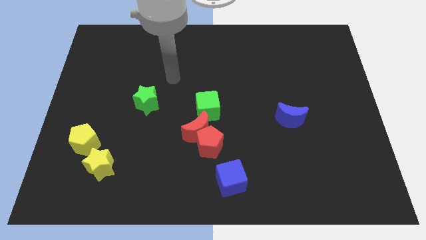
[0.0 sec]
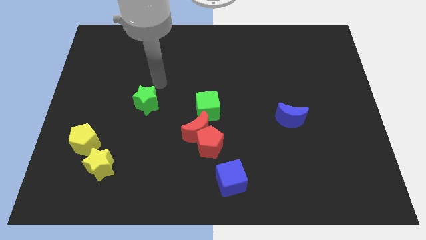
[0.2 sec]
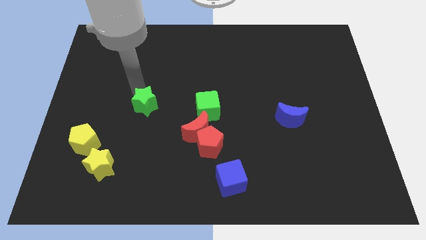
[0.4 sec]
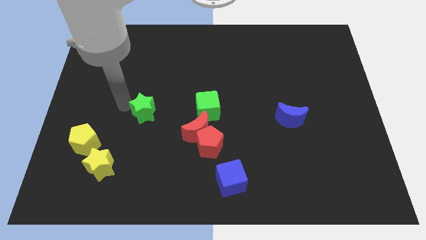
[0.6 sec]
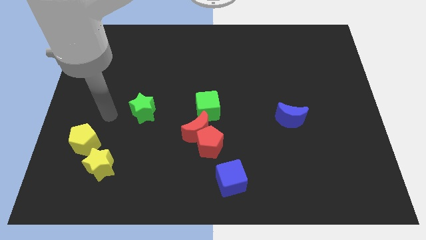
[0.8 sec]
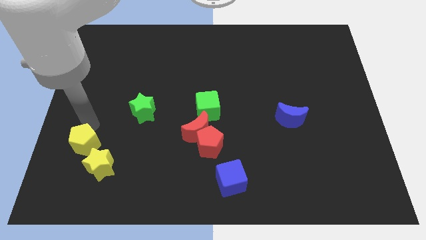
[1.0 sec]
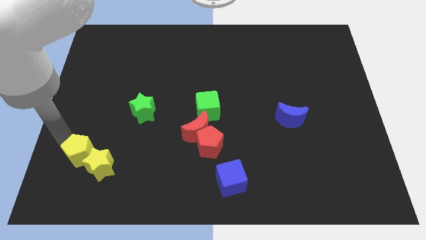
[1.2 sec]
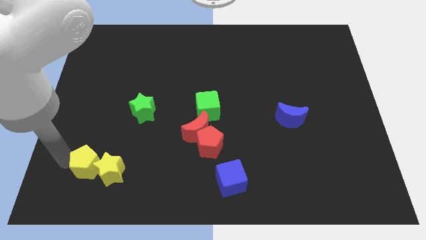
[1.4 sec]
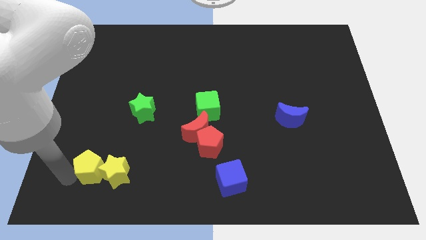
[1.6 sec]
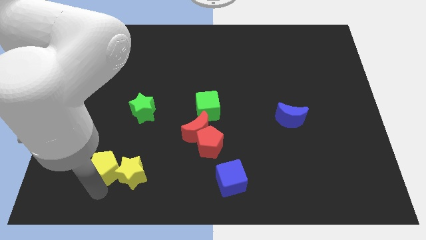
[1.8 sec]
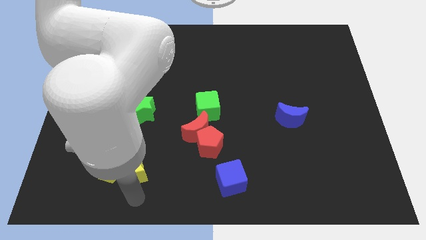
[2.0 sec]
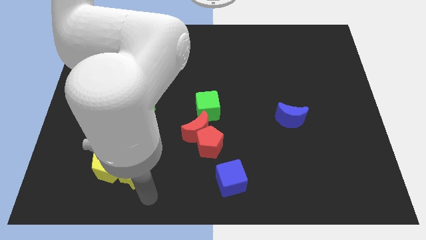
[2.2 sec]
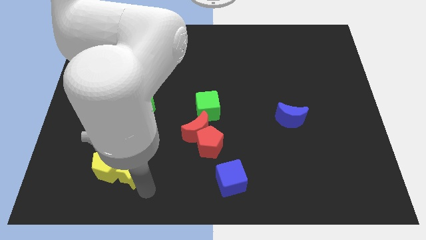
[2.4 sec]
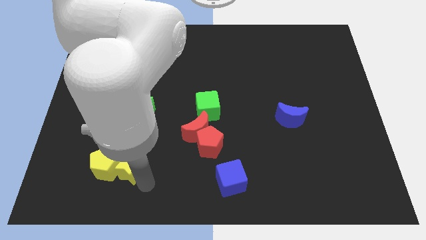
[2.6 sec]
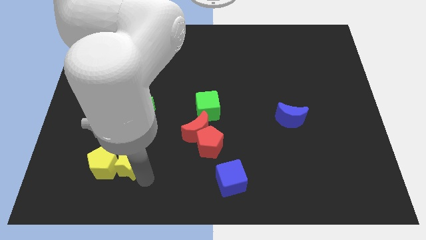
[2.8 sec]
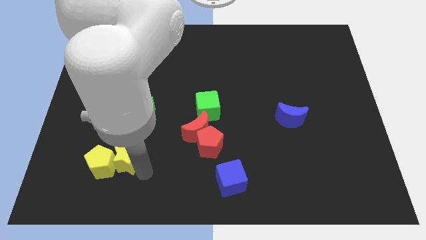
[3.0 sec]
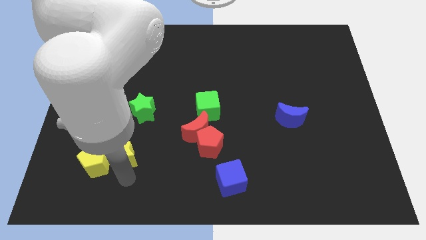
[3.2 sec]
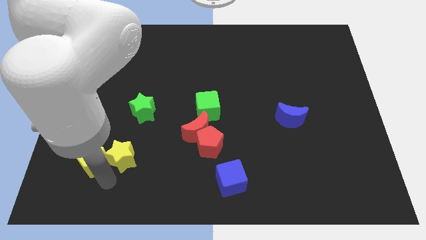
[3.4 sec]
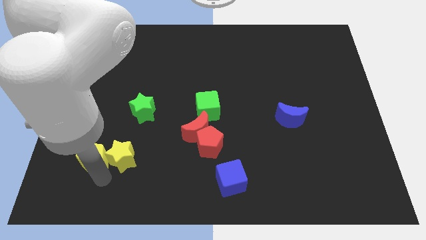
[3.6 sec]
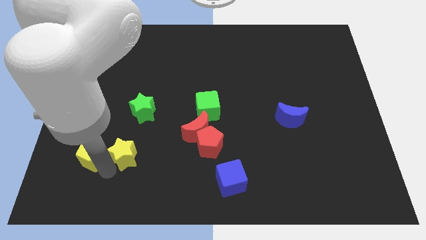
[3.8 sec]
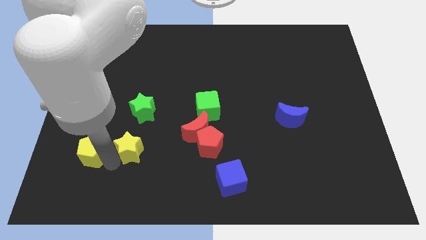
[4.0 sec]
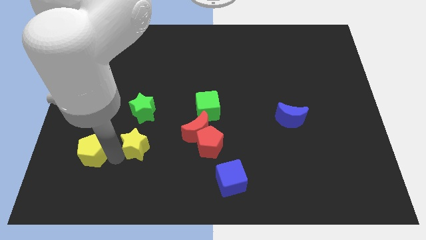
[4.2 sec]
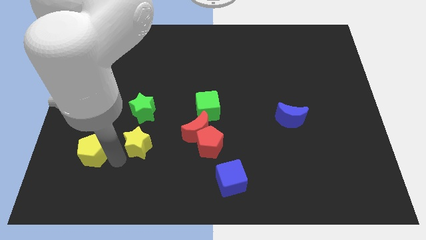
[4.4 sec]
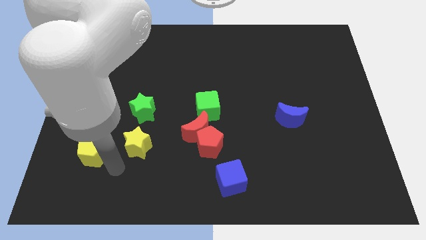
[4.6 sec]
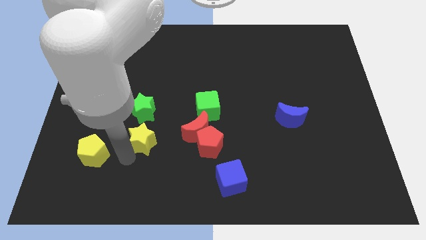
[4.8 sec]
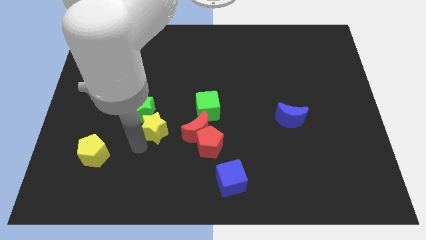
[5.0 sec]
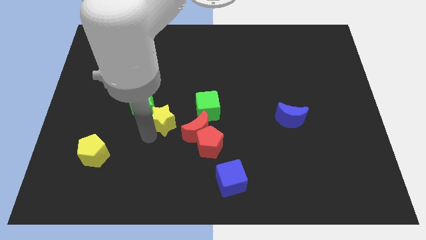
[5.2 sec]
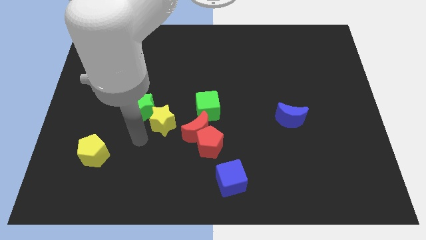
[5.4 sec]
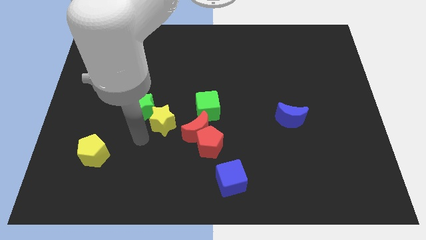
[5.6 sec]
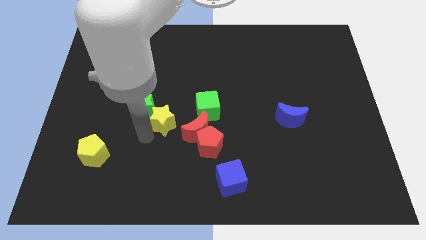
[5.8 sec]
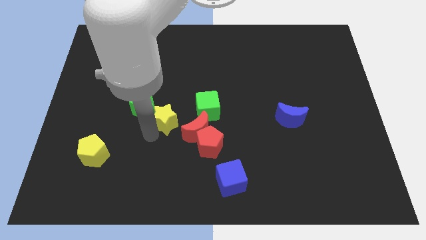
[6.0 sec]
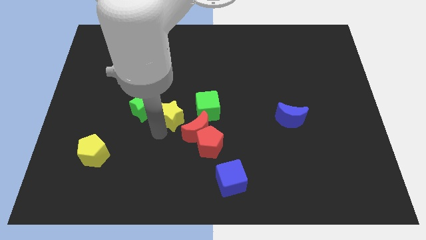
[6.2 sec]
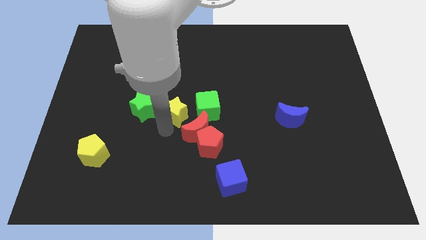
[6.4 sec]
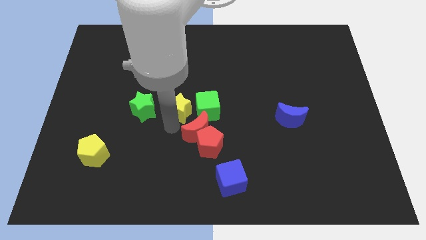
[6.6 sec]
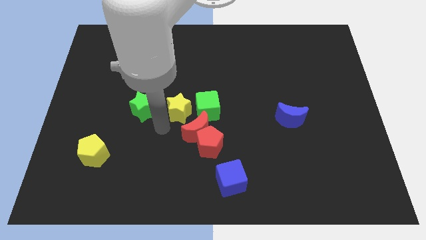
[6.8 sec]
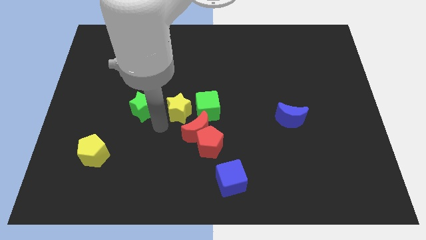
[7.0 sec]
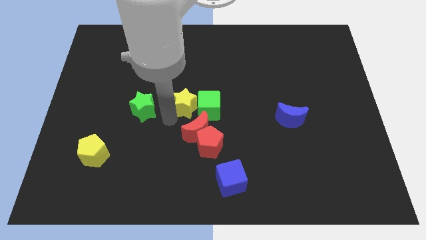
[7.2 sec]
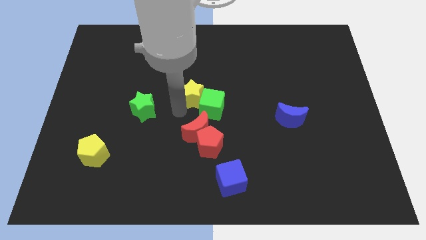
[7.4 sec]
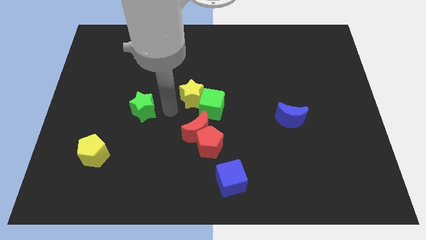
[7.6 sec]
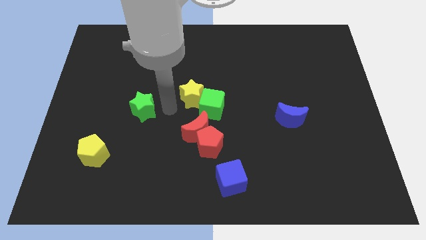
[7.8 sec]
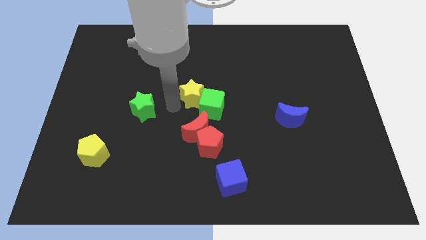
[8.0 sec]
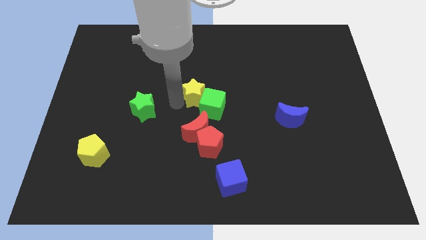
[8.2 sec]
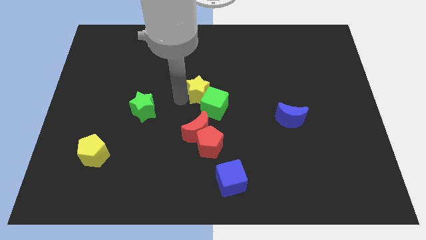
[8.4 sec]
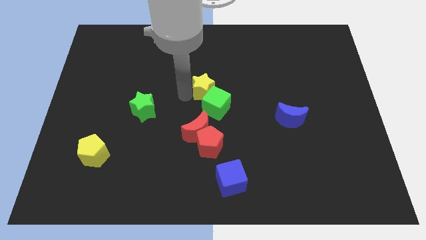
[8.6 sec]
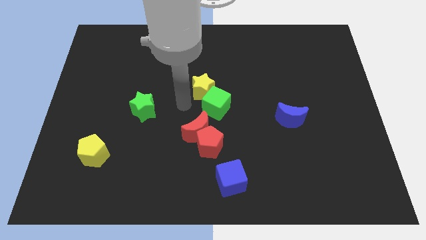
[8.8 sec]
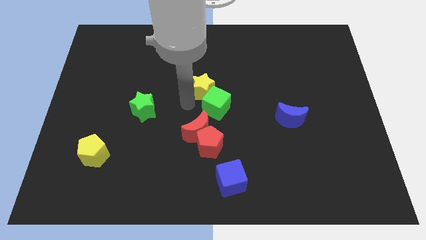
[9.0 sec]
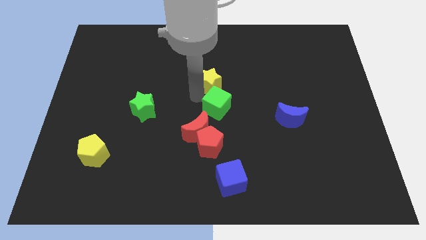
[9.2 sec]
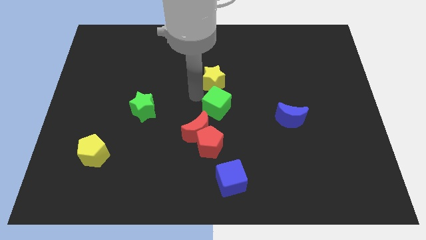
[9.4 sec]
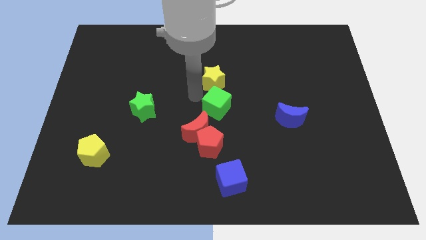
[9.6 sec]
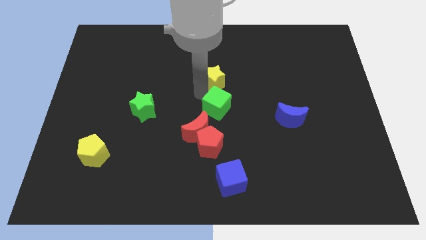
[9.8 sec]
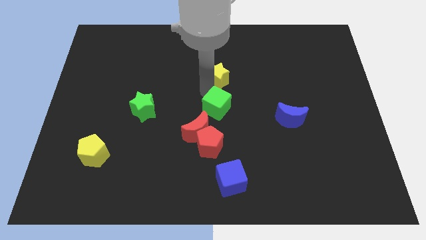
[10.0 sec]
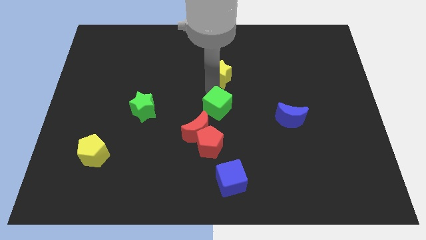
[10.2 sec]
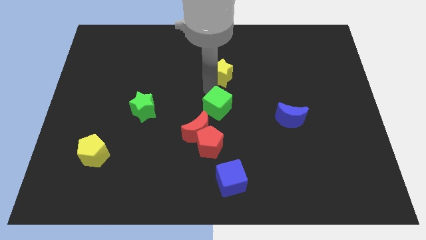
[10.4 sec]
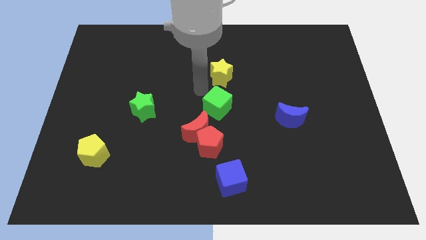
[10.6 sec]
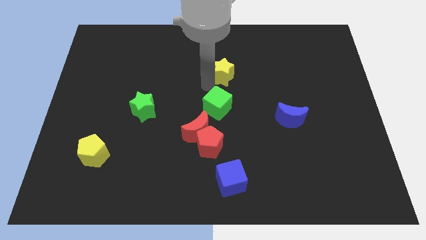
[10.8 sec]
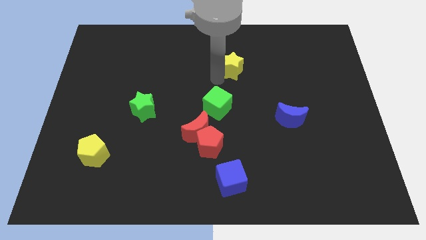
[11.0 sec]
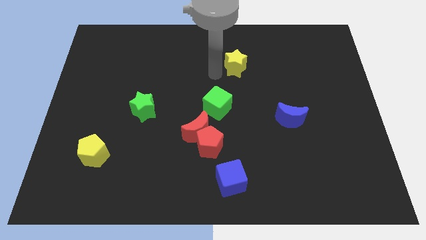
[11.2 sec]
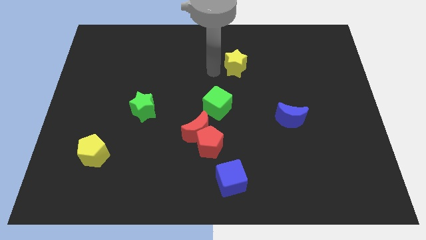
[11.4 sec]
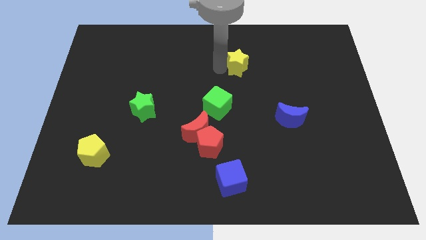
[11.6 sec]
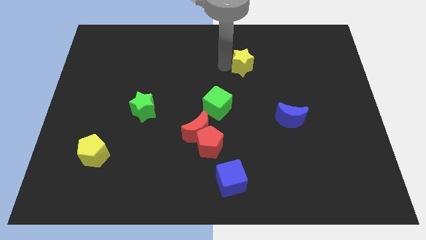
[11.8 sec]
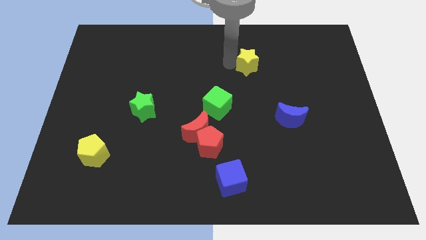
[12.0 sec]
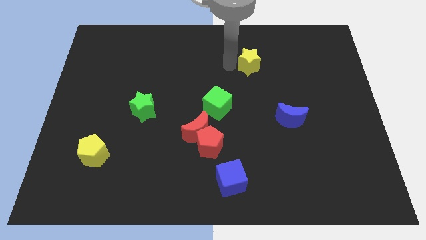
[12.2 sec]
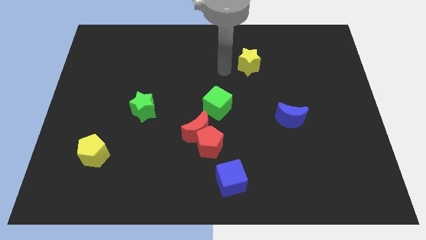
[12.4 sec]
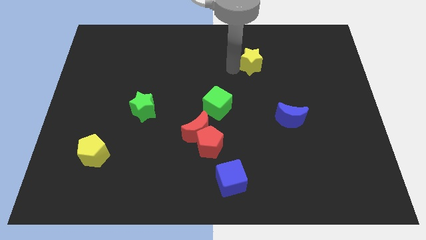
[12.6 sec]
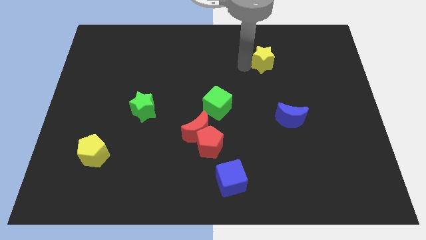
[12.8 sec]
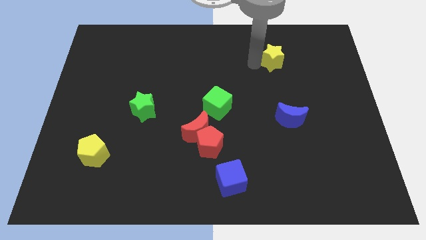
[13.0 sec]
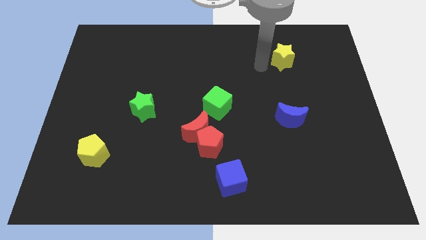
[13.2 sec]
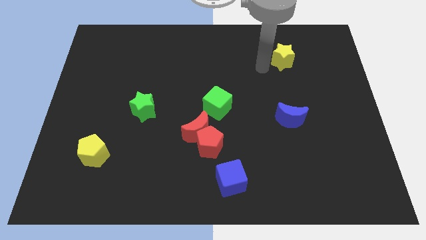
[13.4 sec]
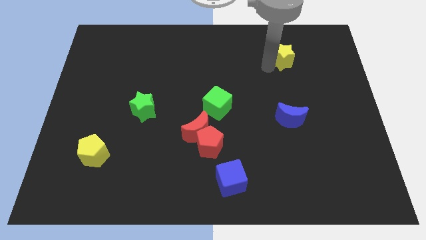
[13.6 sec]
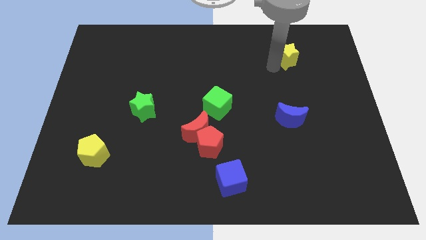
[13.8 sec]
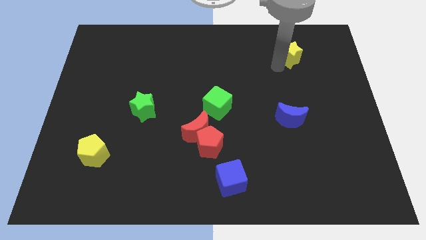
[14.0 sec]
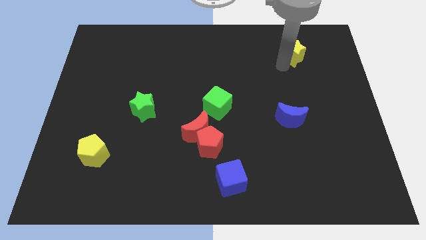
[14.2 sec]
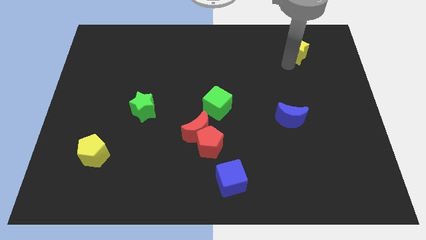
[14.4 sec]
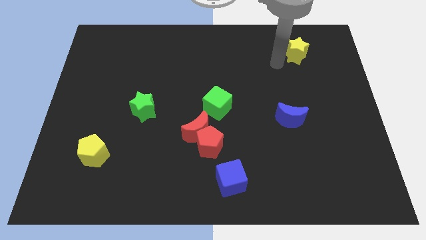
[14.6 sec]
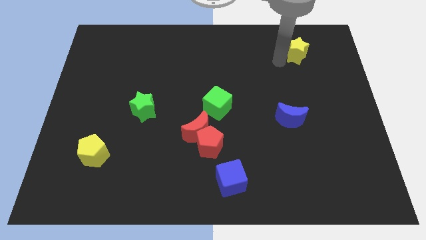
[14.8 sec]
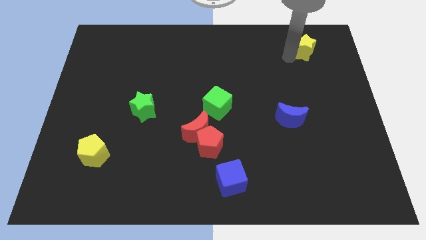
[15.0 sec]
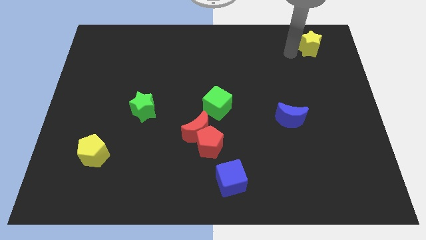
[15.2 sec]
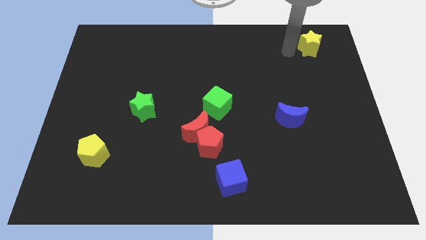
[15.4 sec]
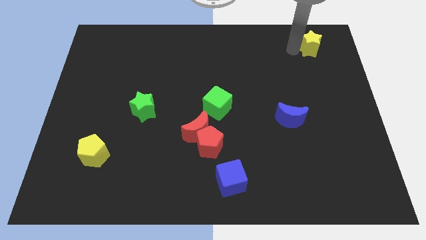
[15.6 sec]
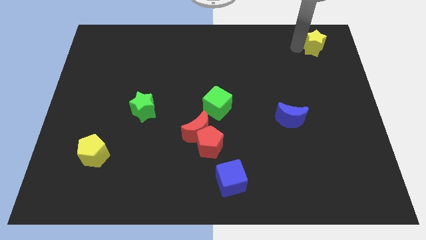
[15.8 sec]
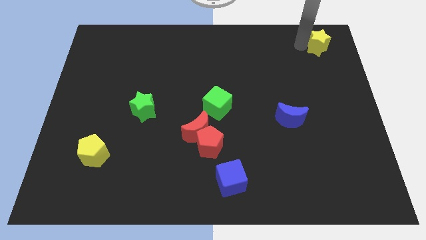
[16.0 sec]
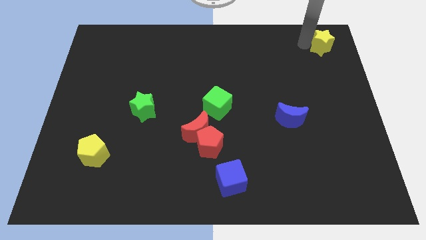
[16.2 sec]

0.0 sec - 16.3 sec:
put the yellow star to the top right
